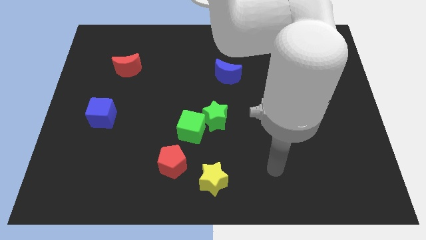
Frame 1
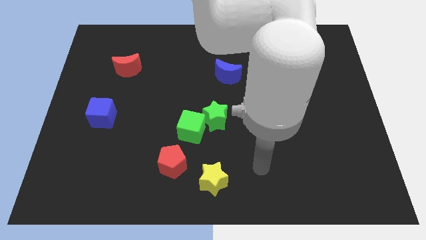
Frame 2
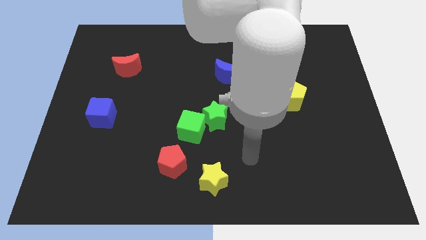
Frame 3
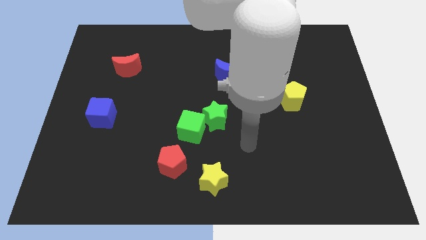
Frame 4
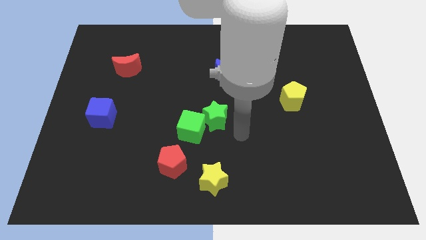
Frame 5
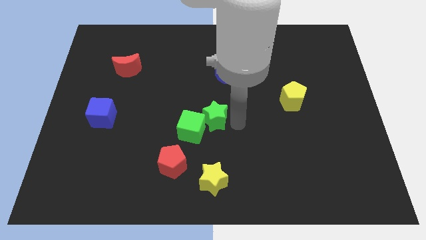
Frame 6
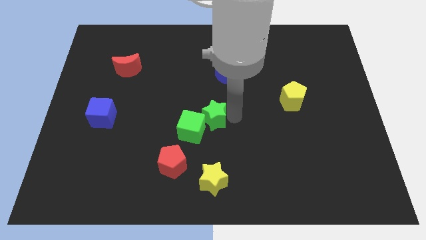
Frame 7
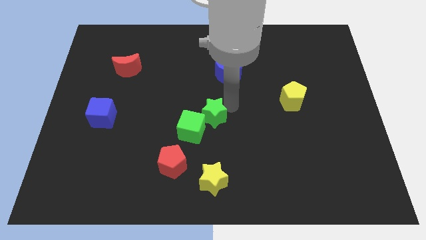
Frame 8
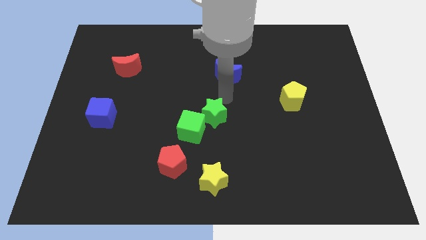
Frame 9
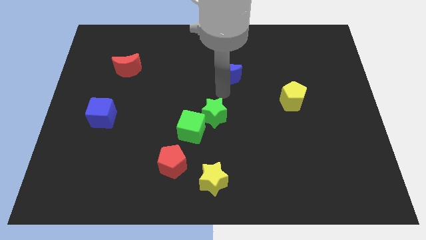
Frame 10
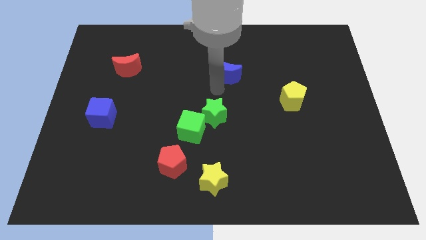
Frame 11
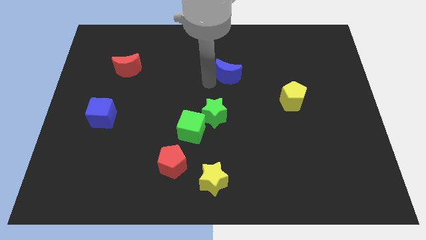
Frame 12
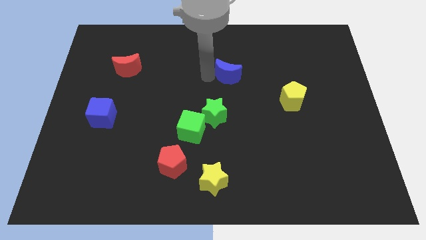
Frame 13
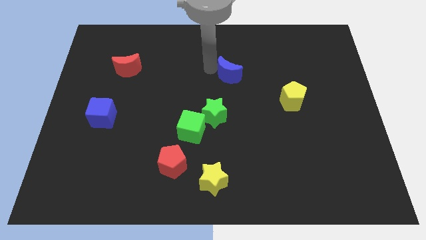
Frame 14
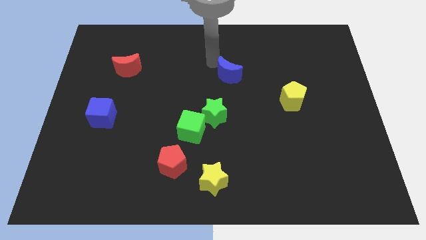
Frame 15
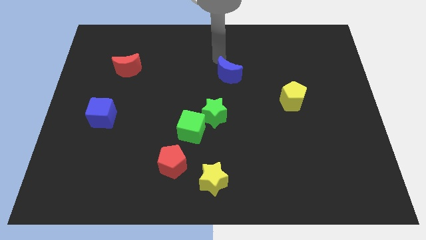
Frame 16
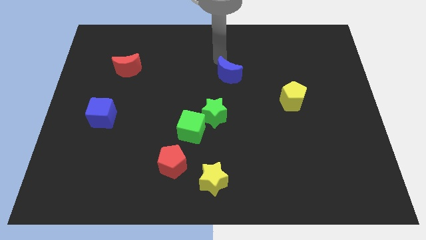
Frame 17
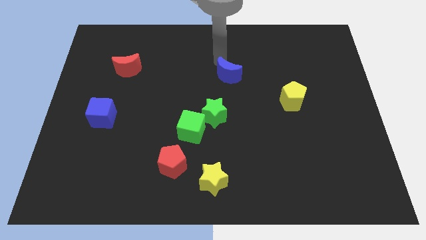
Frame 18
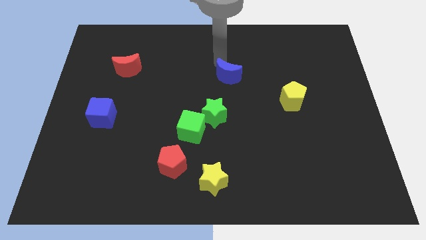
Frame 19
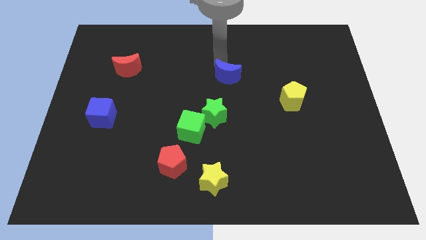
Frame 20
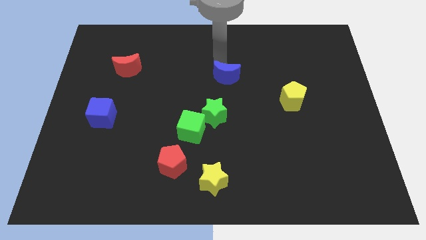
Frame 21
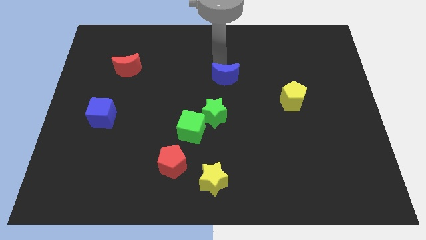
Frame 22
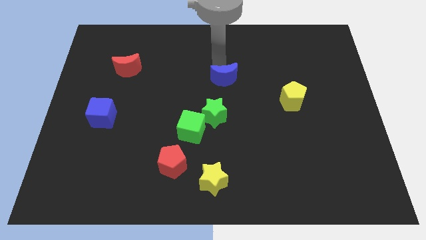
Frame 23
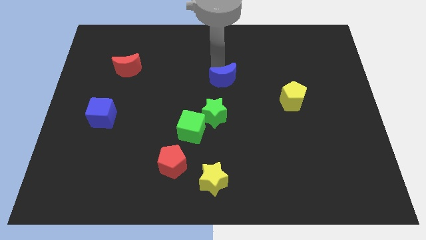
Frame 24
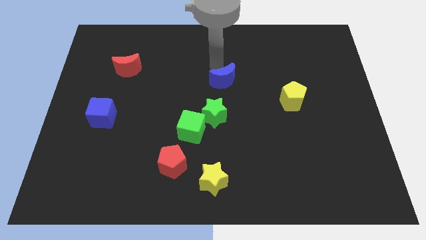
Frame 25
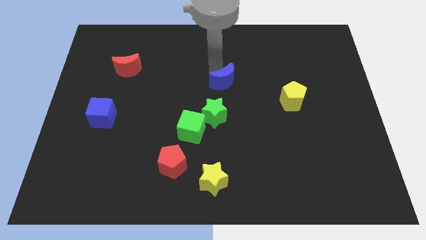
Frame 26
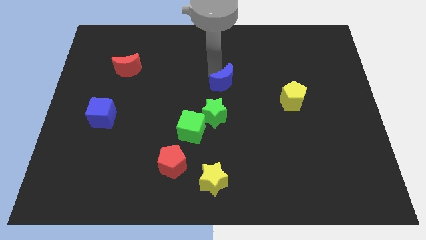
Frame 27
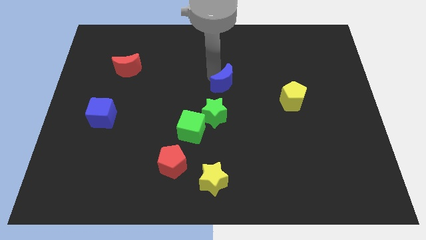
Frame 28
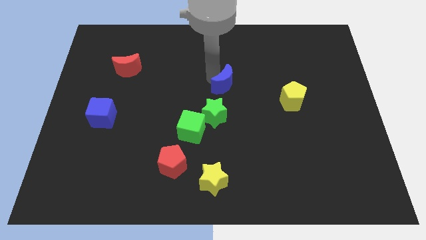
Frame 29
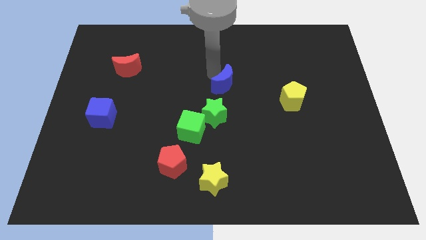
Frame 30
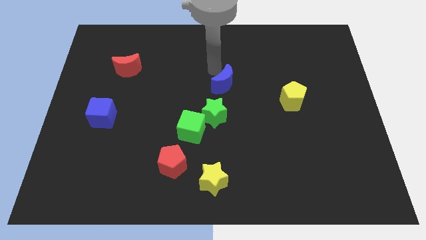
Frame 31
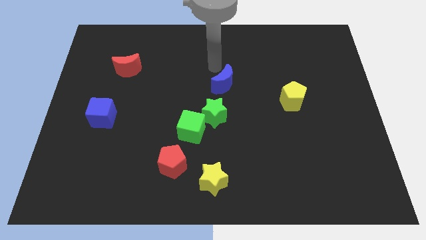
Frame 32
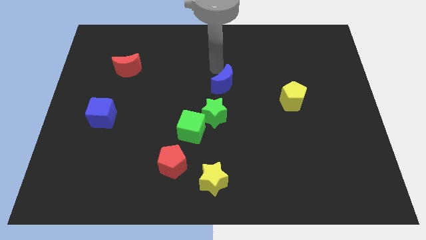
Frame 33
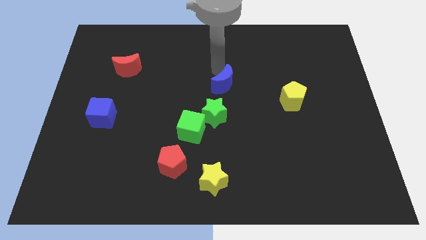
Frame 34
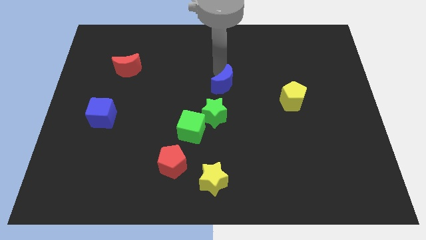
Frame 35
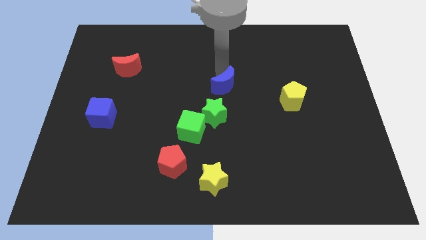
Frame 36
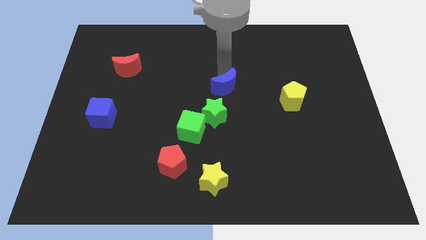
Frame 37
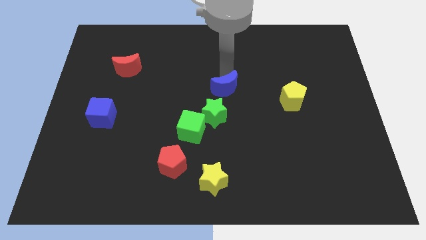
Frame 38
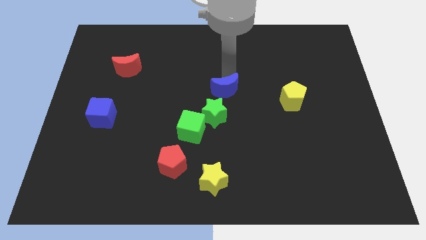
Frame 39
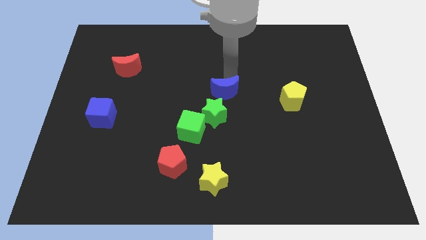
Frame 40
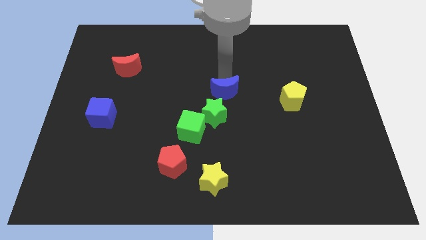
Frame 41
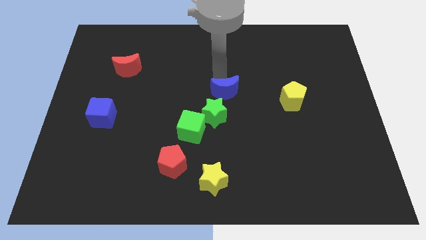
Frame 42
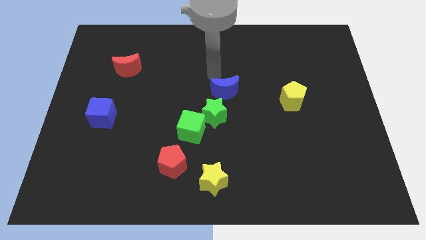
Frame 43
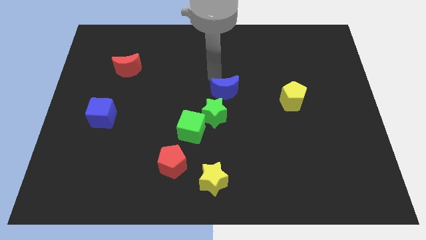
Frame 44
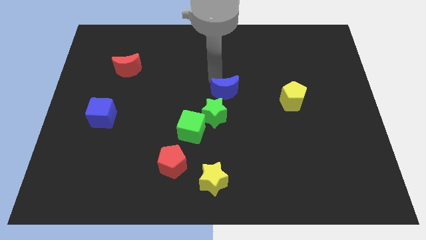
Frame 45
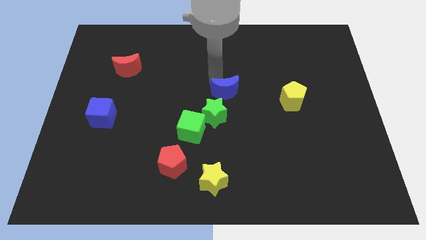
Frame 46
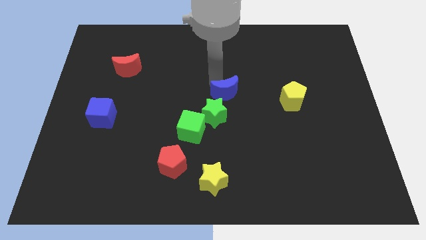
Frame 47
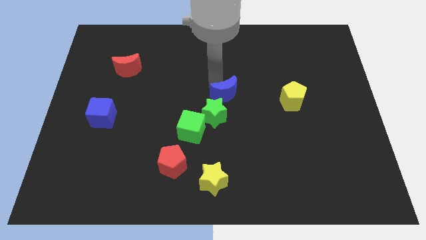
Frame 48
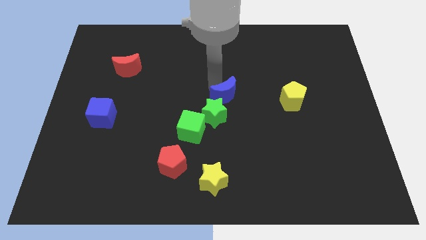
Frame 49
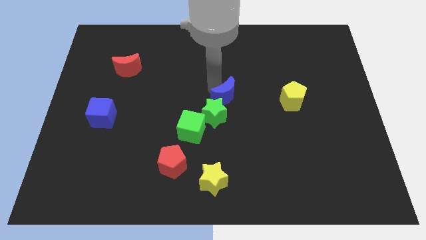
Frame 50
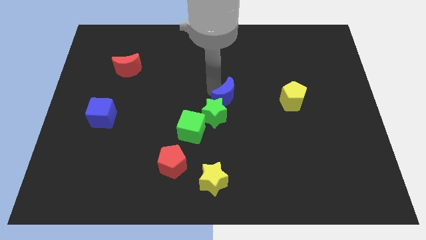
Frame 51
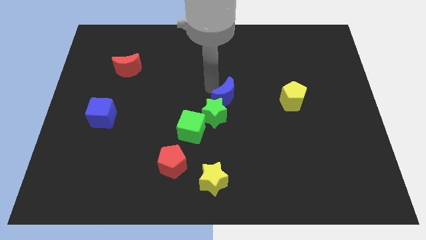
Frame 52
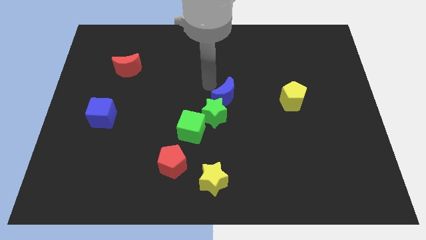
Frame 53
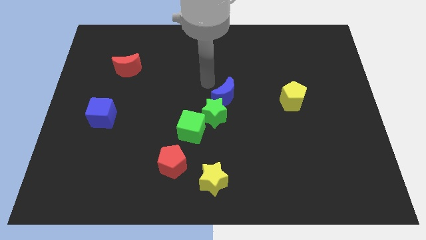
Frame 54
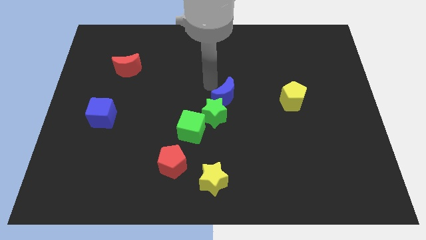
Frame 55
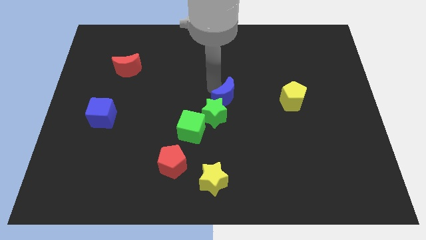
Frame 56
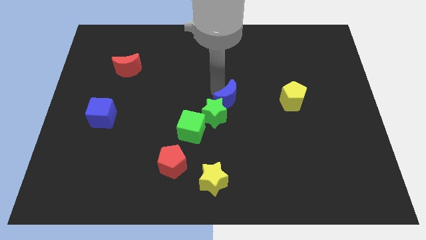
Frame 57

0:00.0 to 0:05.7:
slide the blue moon to the right side of the green star

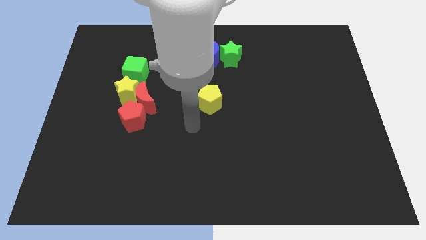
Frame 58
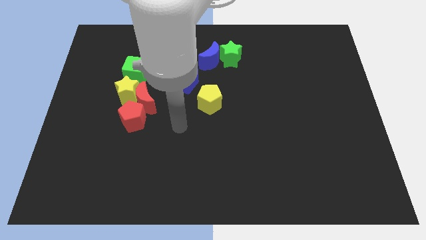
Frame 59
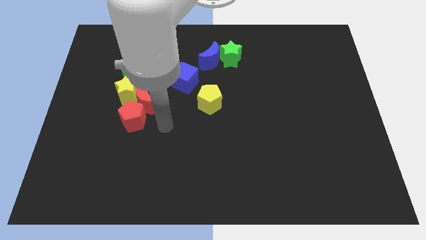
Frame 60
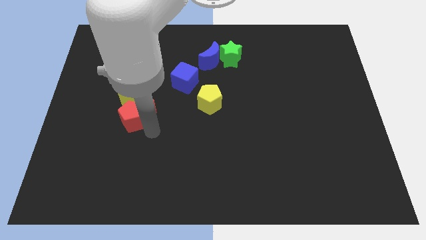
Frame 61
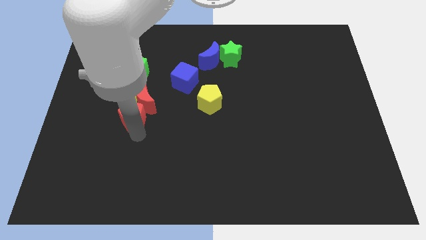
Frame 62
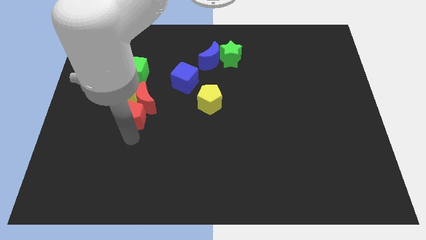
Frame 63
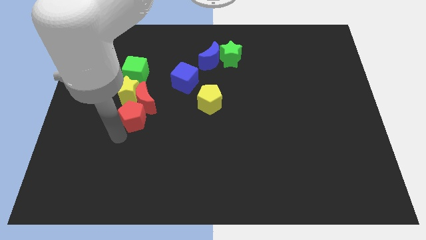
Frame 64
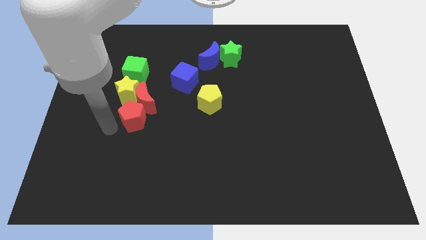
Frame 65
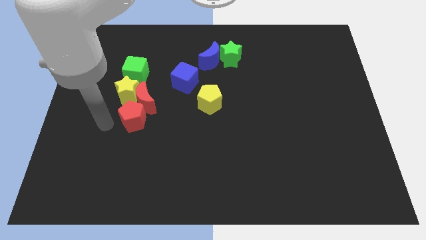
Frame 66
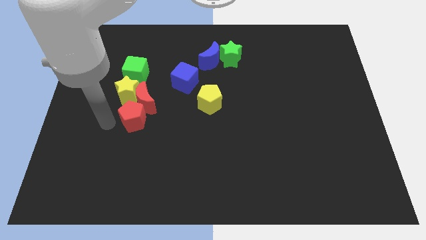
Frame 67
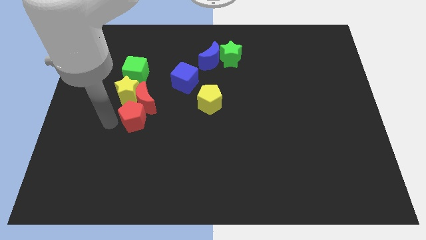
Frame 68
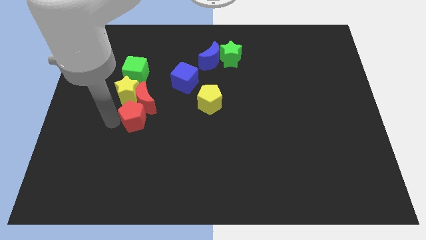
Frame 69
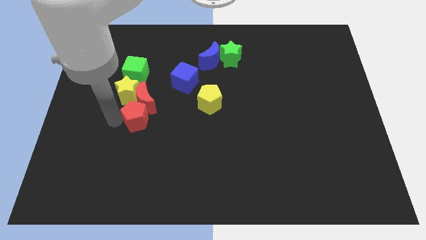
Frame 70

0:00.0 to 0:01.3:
move the red pentagon diagonally down and to the right of the red moon
